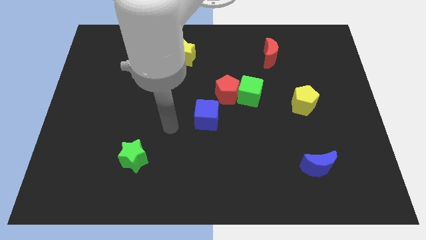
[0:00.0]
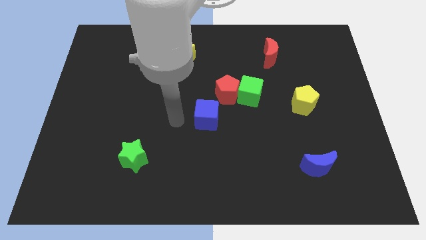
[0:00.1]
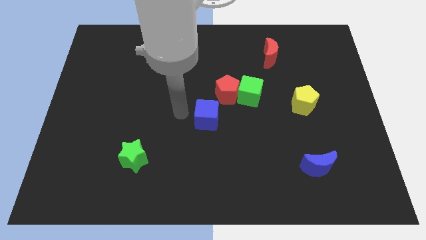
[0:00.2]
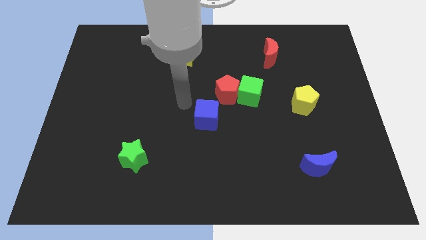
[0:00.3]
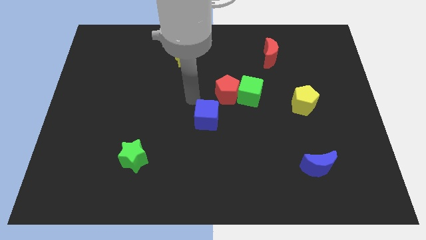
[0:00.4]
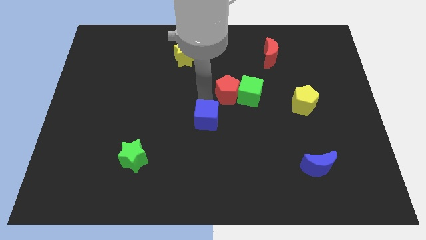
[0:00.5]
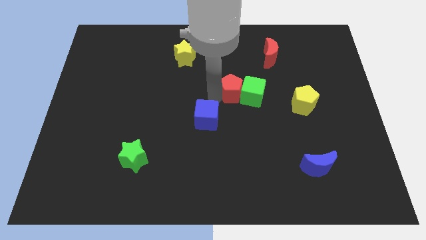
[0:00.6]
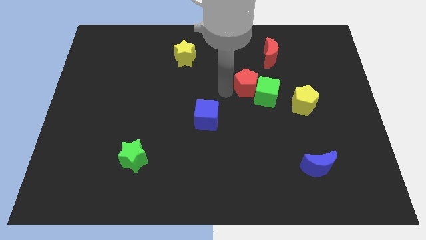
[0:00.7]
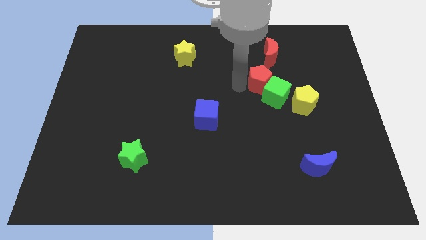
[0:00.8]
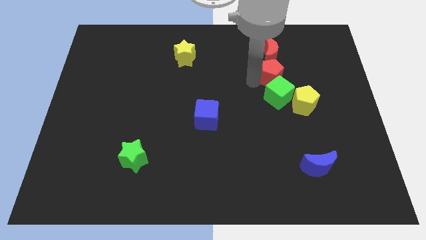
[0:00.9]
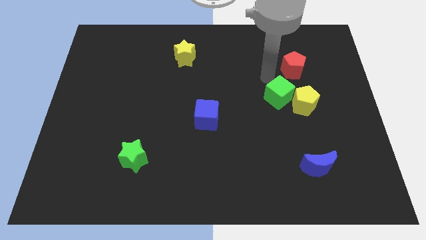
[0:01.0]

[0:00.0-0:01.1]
separate the green cube from the red pentagon

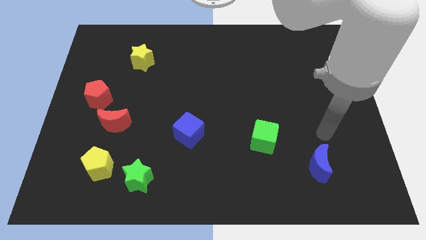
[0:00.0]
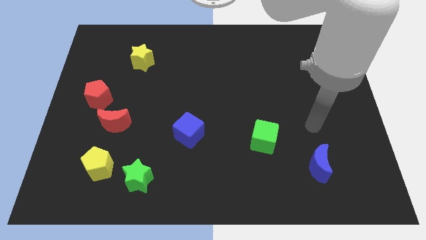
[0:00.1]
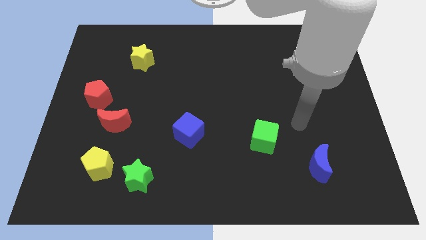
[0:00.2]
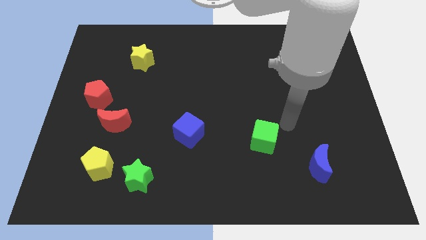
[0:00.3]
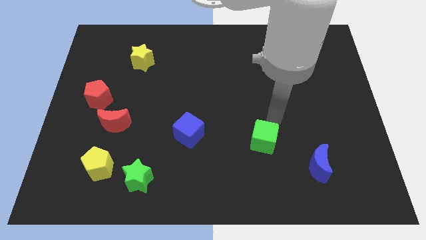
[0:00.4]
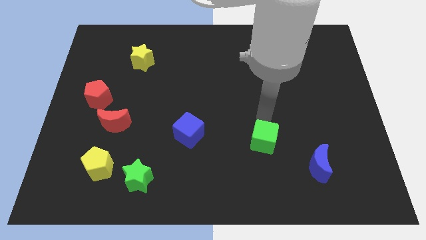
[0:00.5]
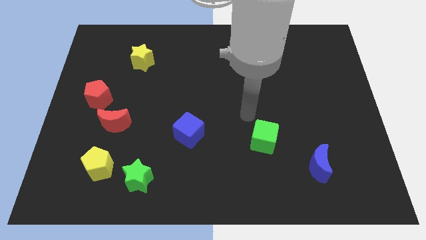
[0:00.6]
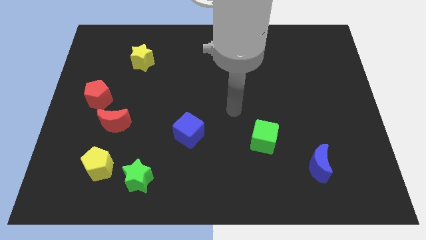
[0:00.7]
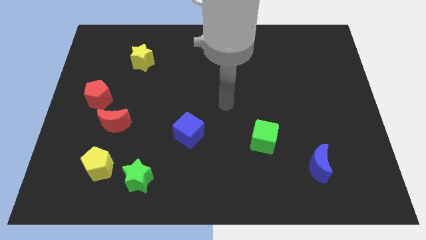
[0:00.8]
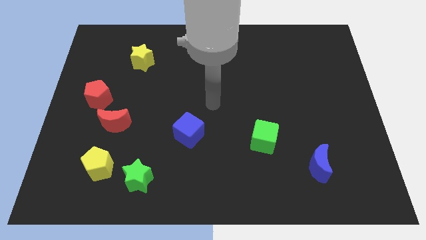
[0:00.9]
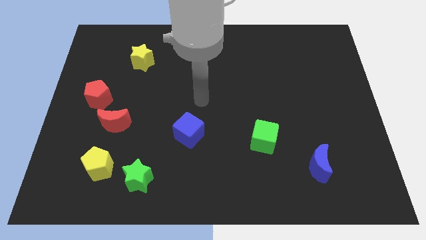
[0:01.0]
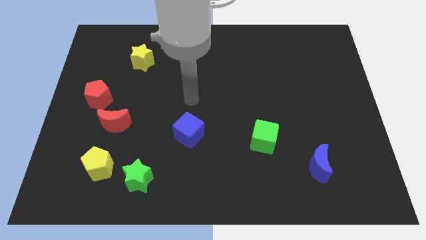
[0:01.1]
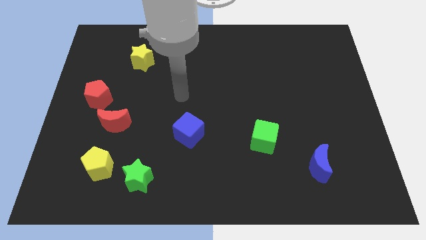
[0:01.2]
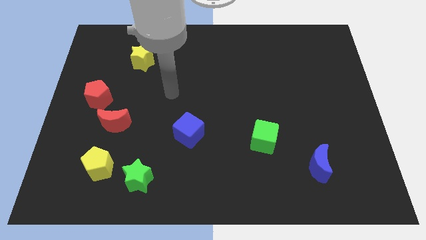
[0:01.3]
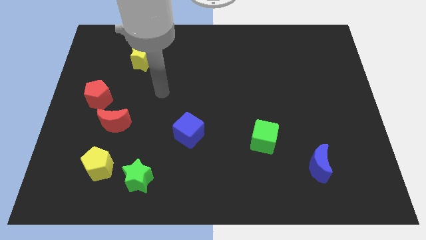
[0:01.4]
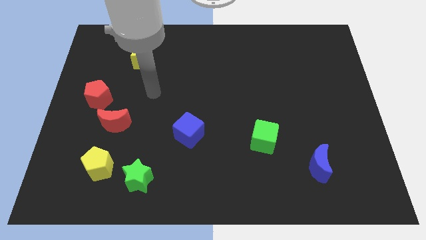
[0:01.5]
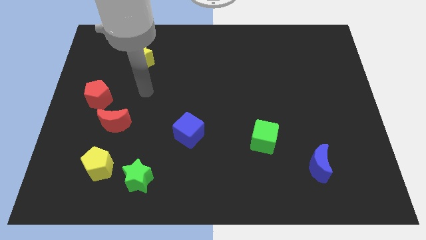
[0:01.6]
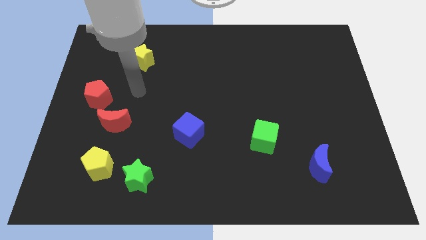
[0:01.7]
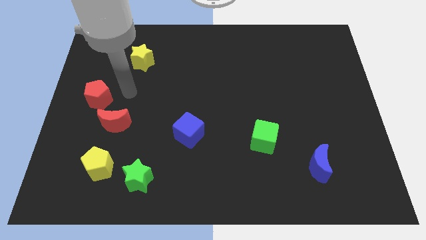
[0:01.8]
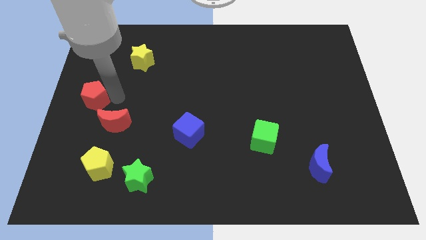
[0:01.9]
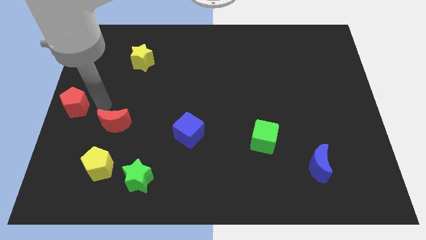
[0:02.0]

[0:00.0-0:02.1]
move the red moon away from the red pentagon

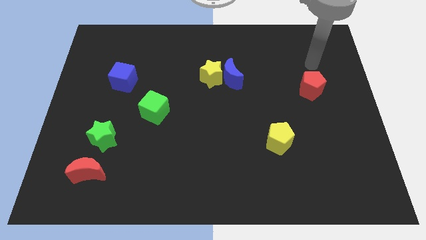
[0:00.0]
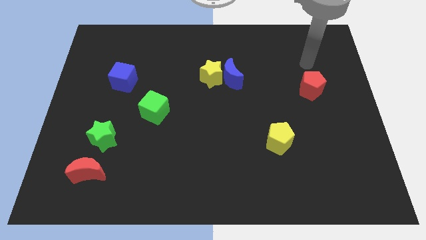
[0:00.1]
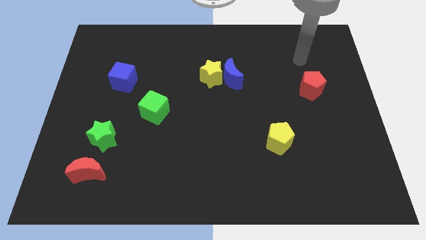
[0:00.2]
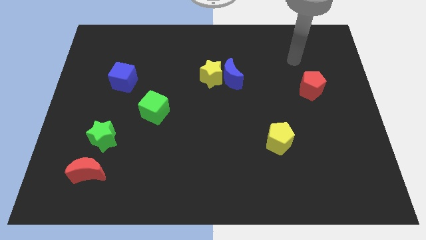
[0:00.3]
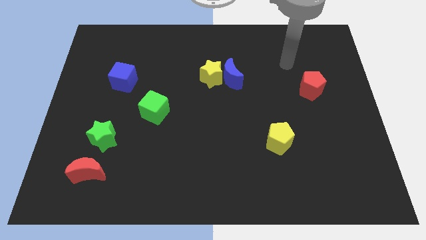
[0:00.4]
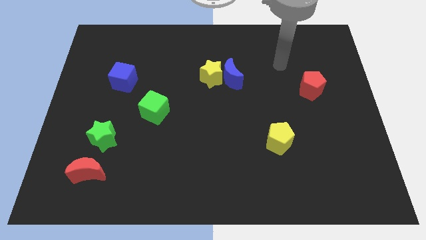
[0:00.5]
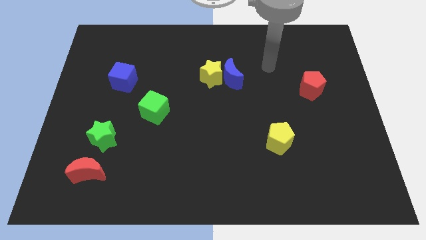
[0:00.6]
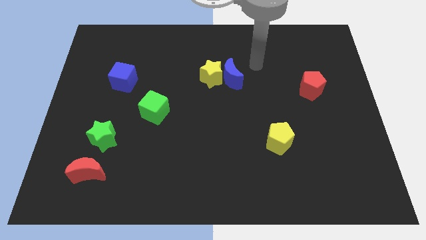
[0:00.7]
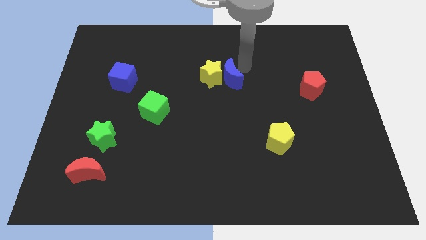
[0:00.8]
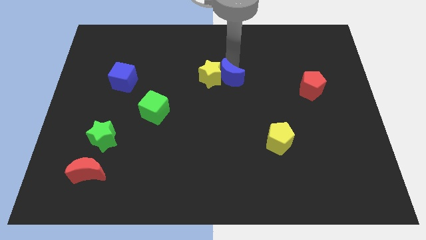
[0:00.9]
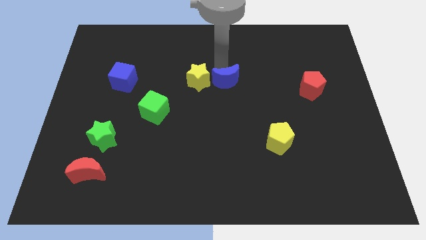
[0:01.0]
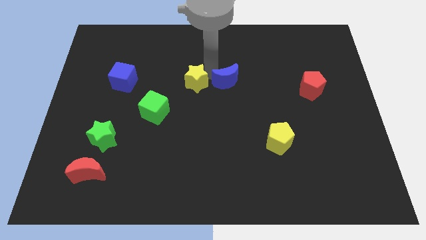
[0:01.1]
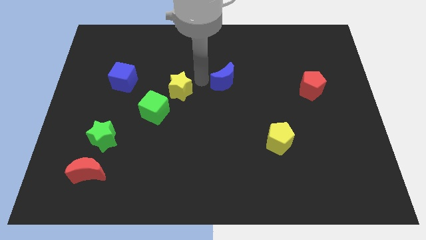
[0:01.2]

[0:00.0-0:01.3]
separate the blue moon from the yellow star

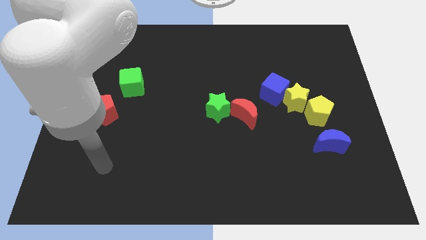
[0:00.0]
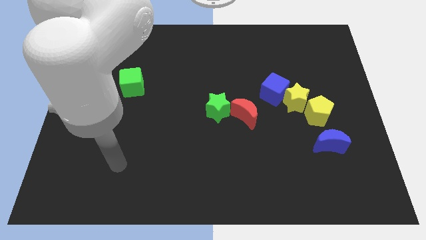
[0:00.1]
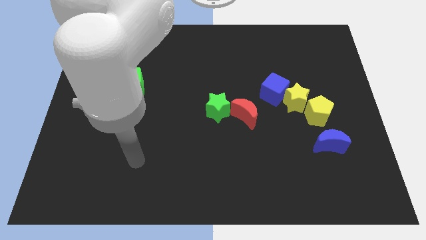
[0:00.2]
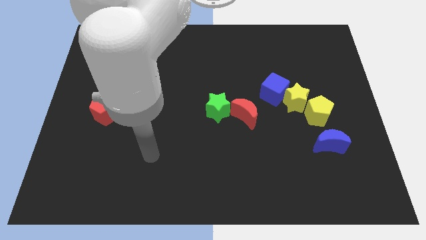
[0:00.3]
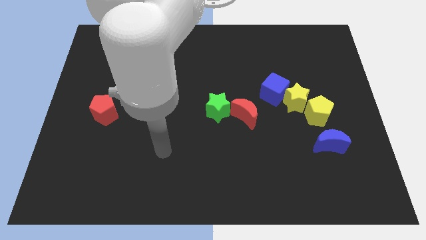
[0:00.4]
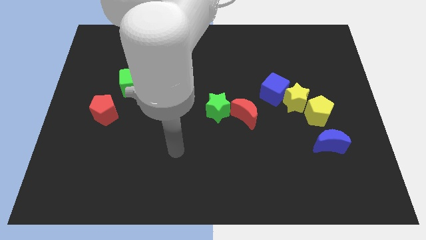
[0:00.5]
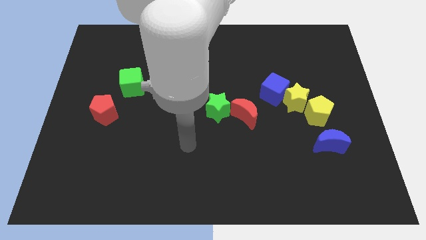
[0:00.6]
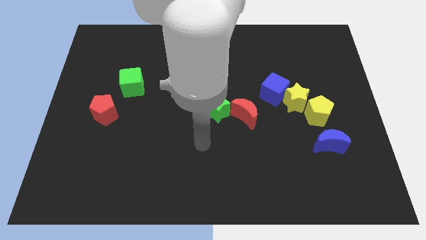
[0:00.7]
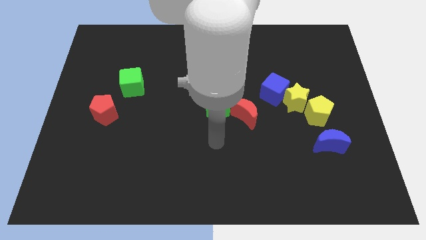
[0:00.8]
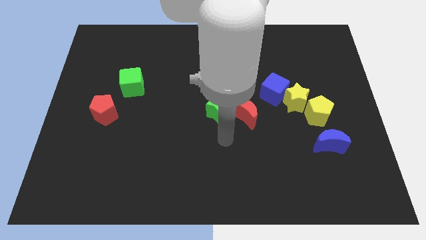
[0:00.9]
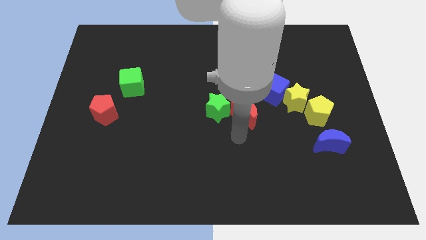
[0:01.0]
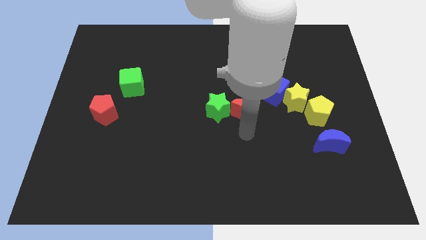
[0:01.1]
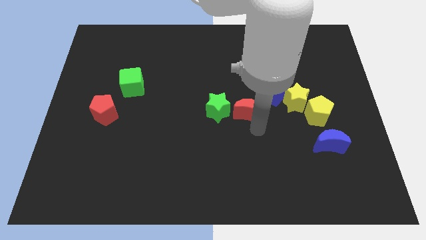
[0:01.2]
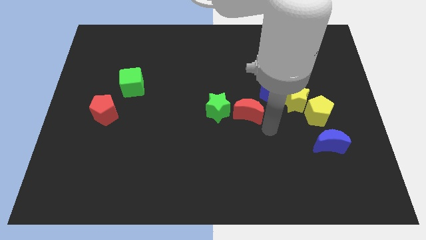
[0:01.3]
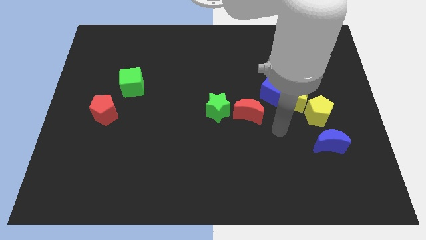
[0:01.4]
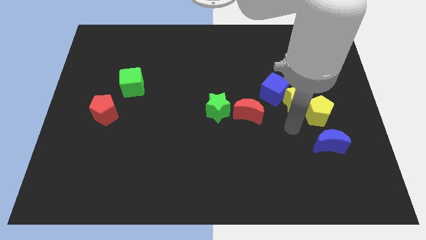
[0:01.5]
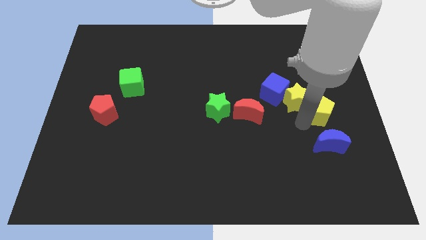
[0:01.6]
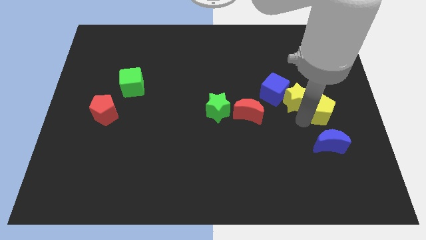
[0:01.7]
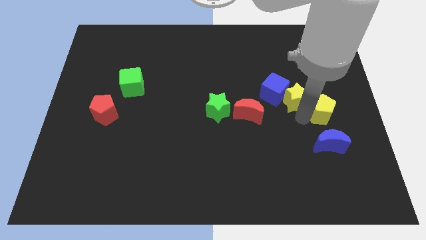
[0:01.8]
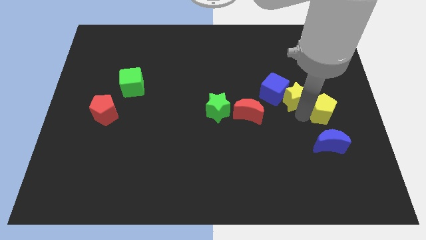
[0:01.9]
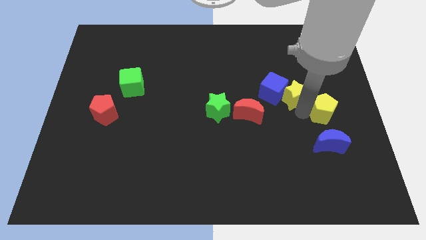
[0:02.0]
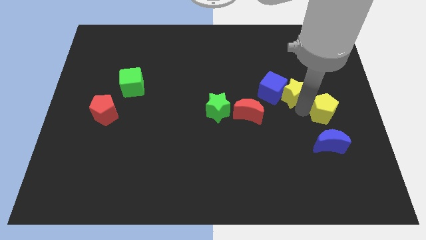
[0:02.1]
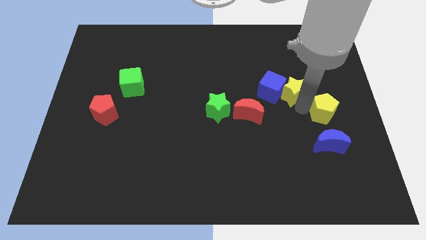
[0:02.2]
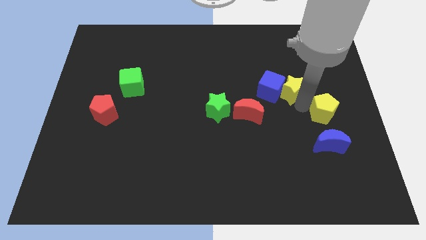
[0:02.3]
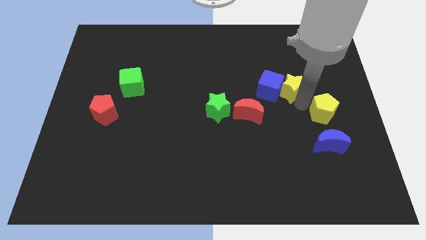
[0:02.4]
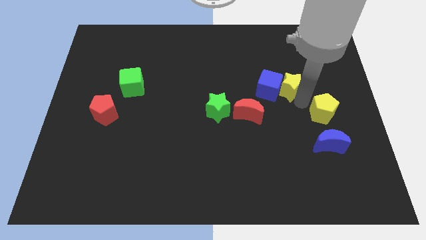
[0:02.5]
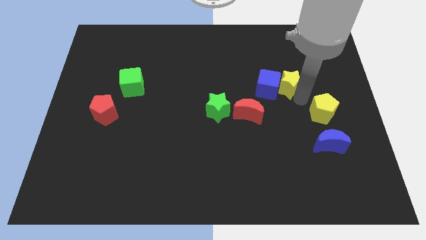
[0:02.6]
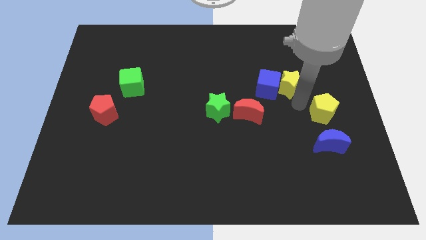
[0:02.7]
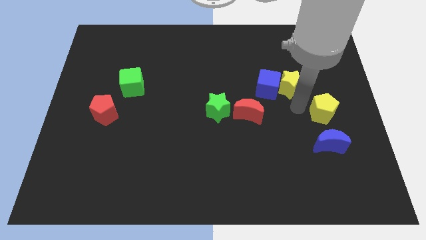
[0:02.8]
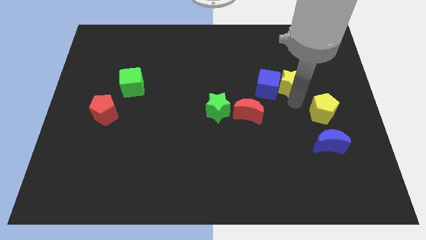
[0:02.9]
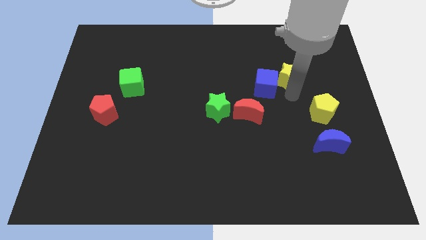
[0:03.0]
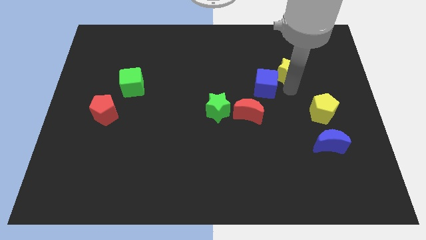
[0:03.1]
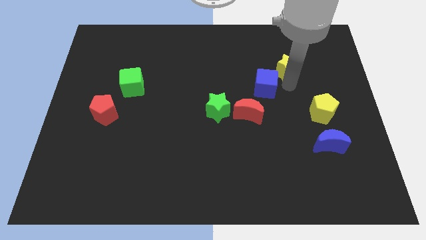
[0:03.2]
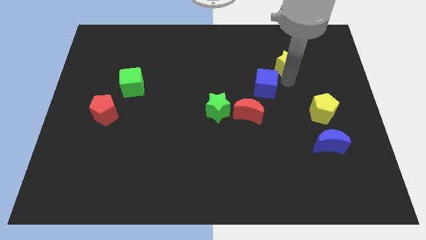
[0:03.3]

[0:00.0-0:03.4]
move the yellow star away from the blue cube and yellow pentagon

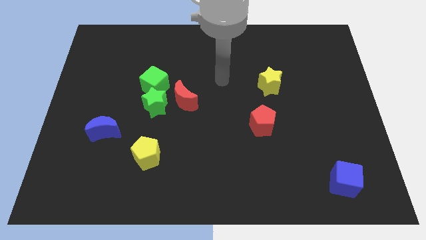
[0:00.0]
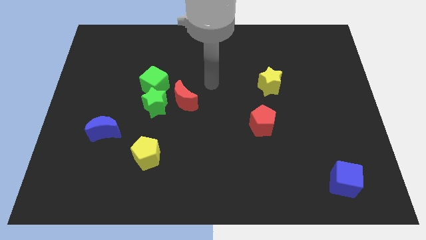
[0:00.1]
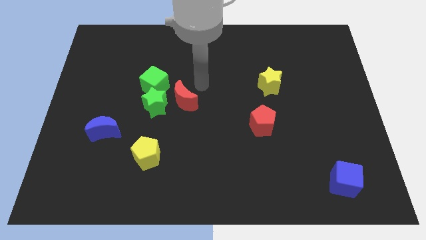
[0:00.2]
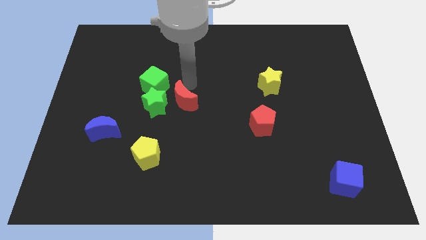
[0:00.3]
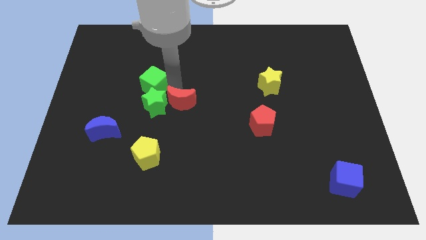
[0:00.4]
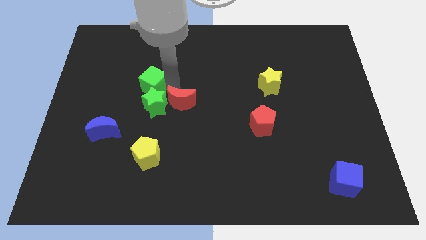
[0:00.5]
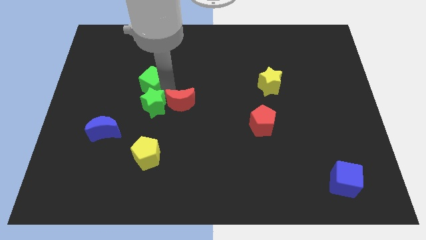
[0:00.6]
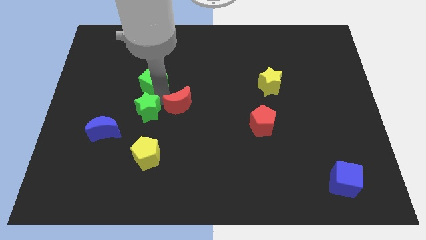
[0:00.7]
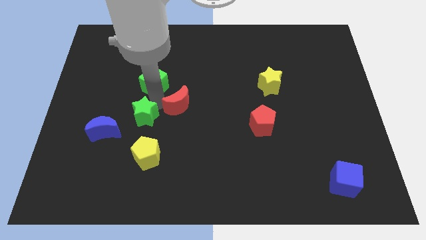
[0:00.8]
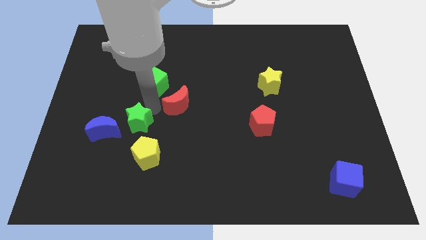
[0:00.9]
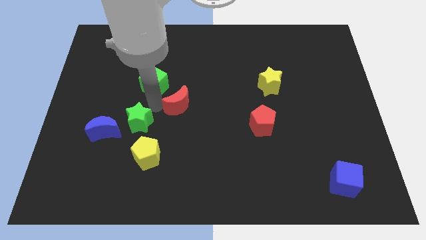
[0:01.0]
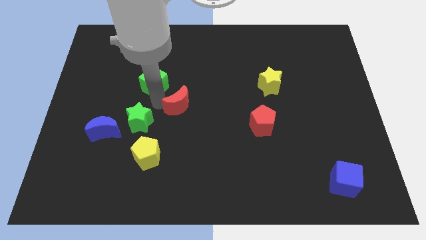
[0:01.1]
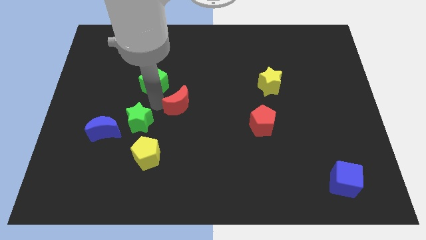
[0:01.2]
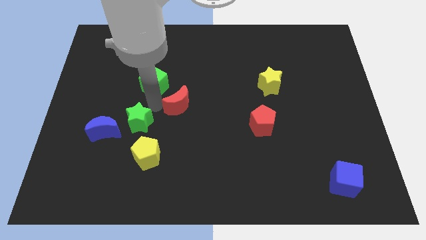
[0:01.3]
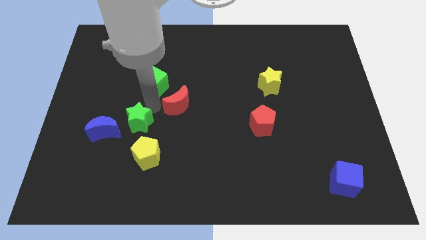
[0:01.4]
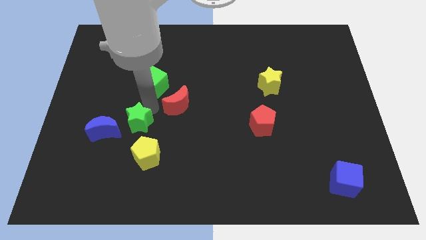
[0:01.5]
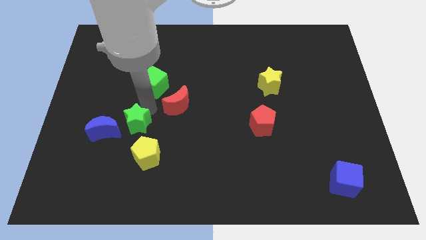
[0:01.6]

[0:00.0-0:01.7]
pull the green star apart from the green cube and red moon
